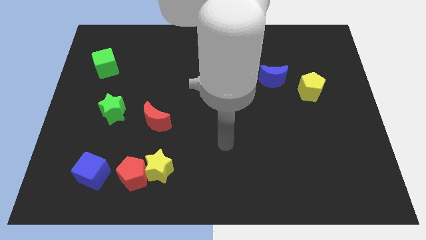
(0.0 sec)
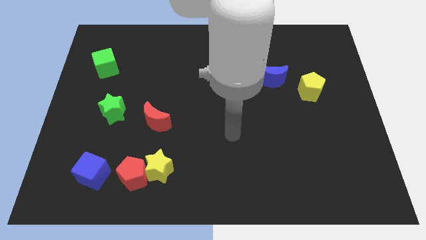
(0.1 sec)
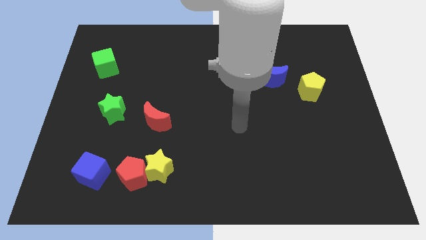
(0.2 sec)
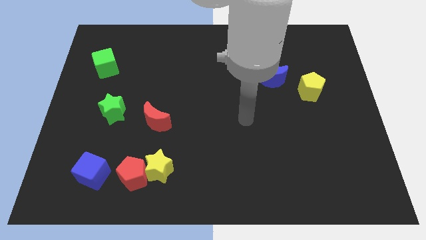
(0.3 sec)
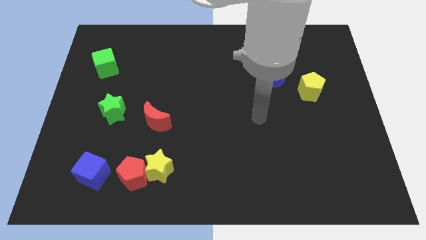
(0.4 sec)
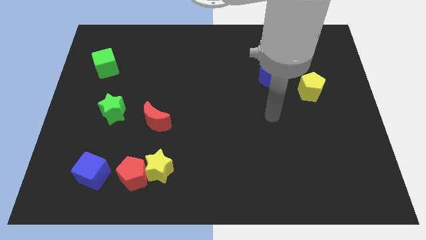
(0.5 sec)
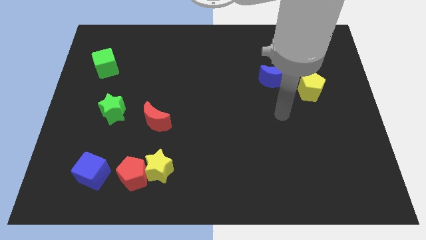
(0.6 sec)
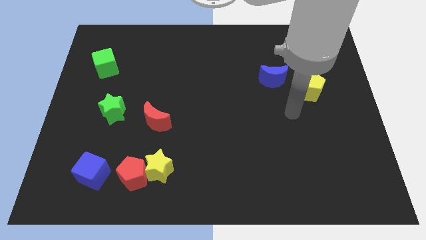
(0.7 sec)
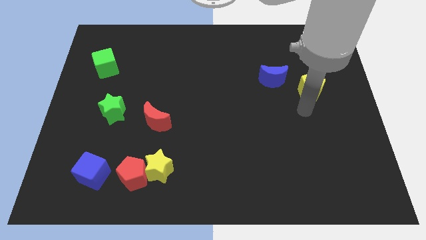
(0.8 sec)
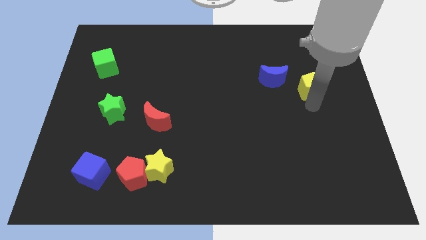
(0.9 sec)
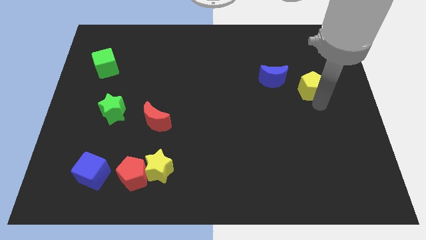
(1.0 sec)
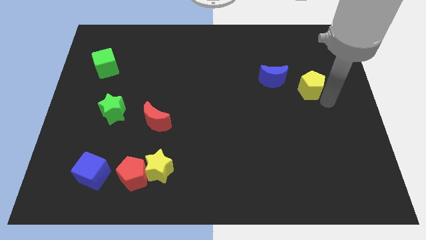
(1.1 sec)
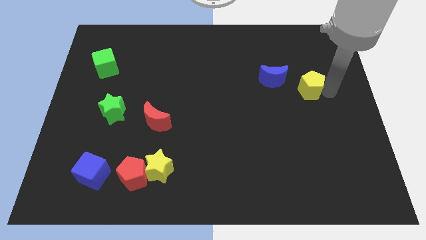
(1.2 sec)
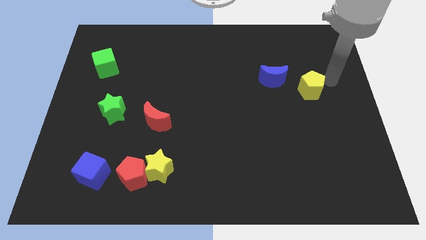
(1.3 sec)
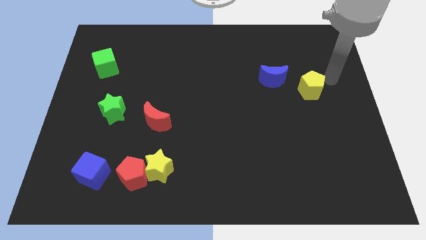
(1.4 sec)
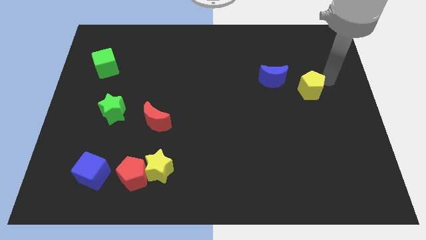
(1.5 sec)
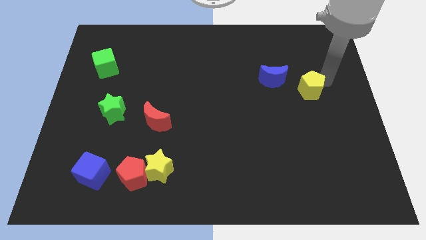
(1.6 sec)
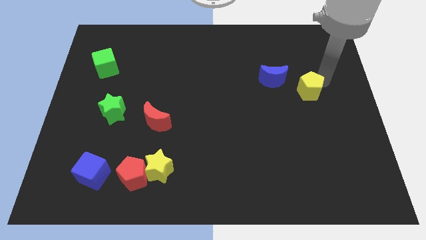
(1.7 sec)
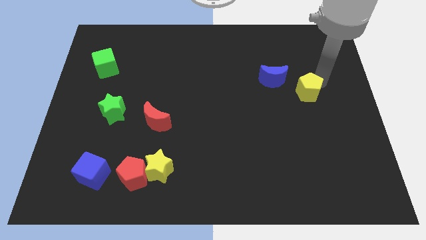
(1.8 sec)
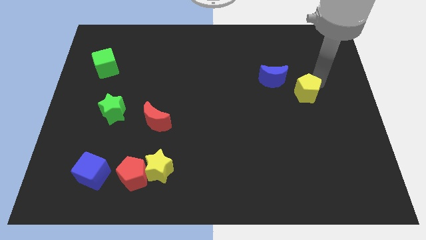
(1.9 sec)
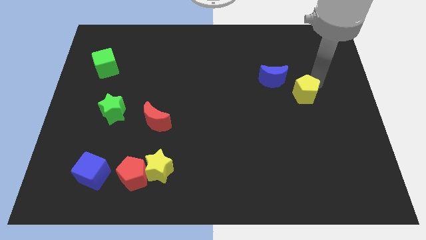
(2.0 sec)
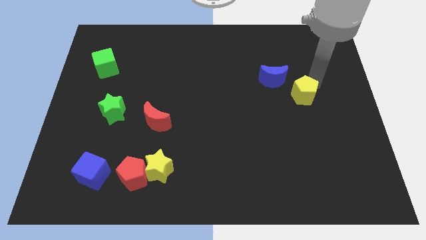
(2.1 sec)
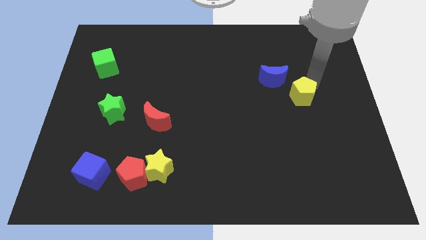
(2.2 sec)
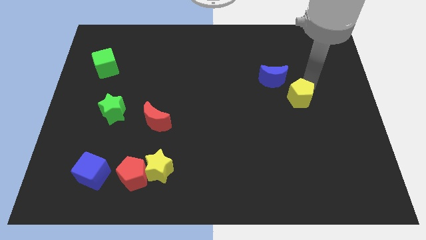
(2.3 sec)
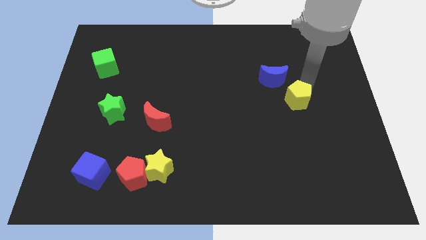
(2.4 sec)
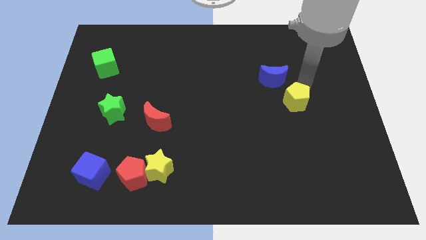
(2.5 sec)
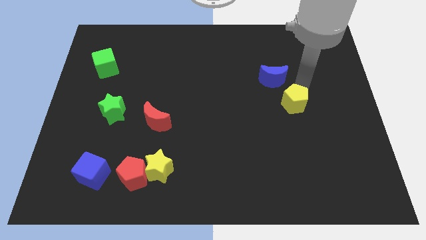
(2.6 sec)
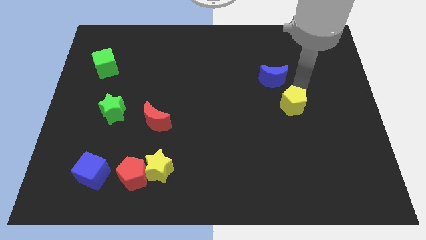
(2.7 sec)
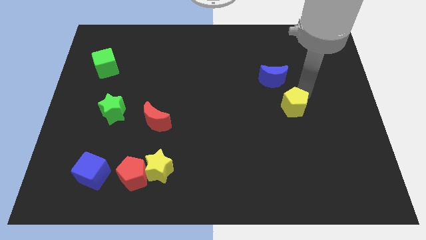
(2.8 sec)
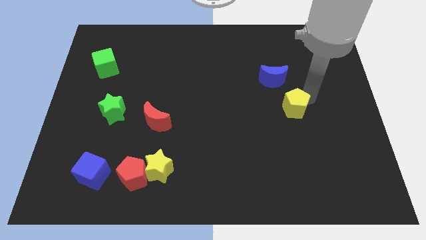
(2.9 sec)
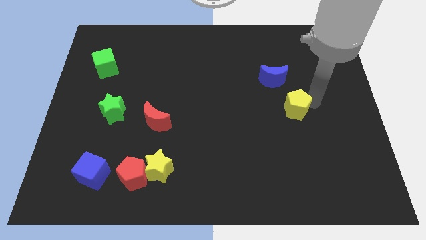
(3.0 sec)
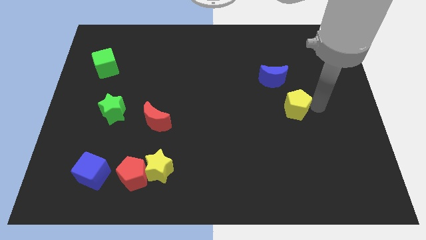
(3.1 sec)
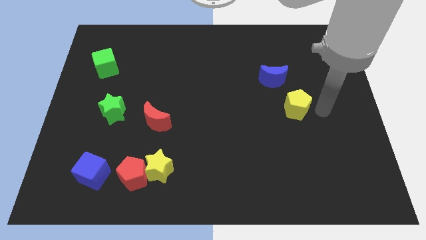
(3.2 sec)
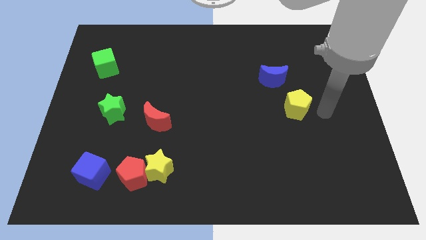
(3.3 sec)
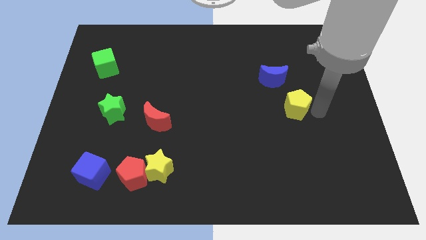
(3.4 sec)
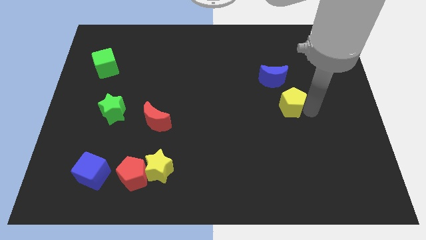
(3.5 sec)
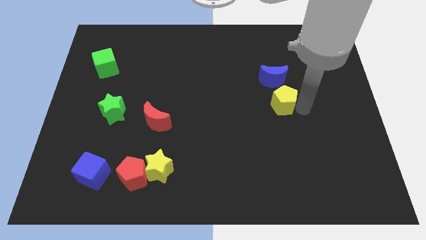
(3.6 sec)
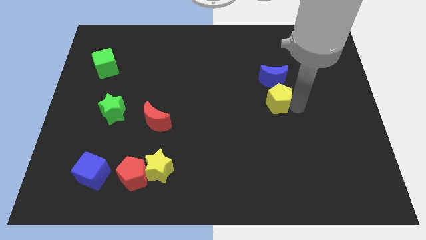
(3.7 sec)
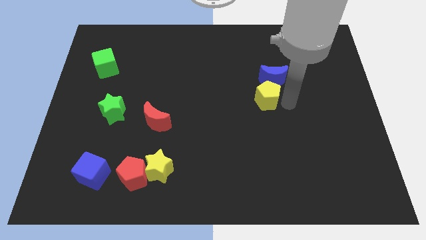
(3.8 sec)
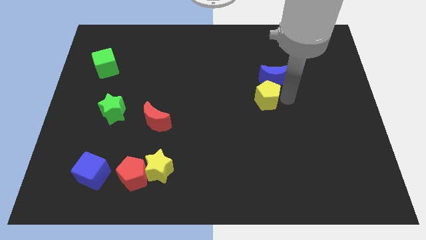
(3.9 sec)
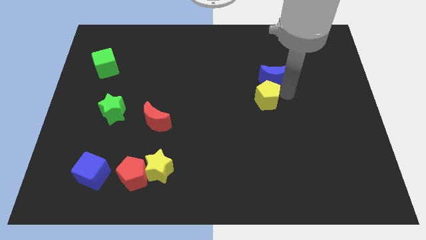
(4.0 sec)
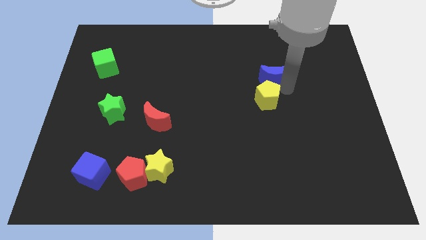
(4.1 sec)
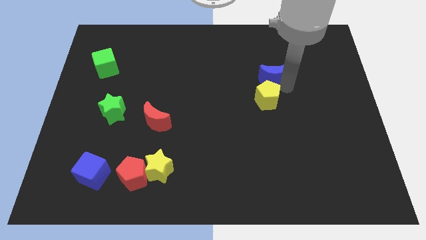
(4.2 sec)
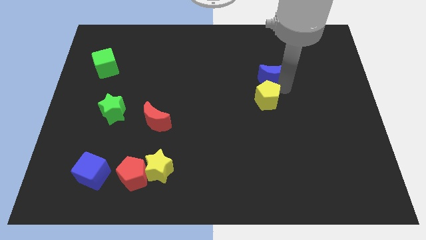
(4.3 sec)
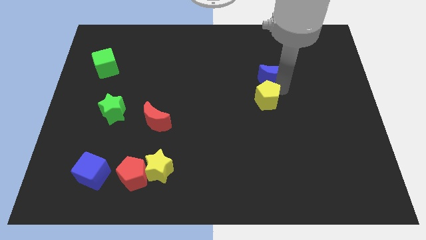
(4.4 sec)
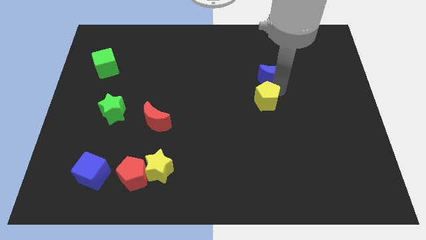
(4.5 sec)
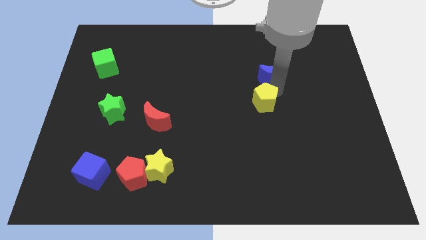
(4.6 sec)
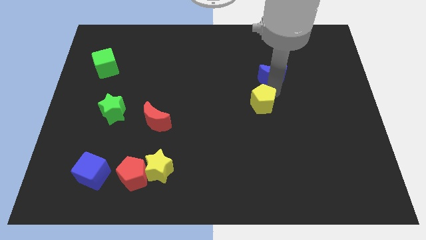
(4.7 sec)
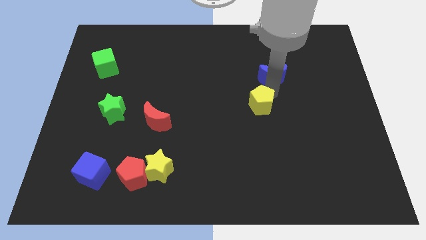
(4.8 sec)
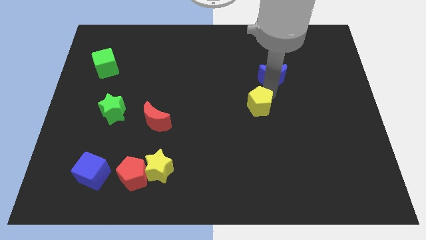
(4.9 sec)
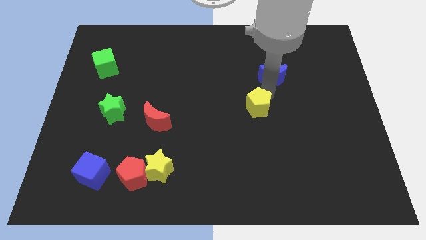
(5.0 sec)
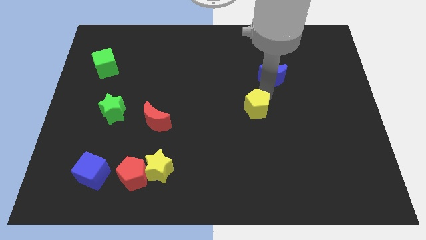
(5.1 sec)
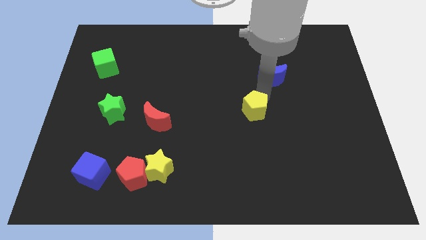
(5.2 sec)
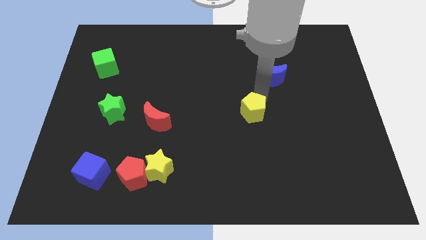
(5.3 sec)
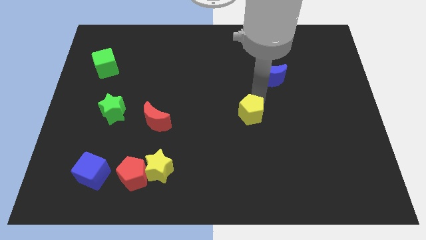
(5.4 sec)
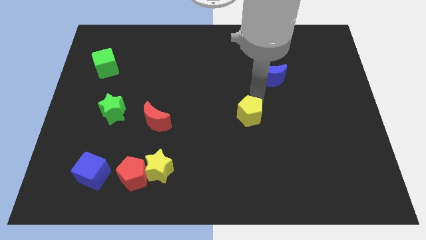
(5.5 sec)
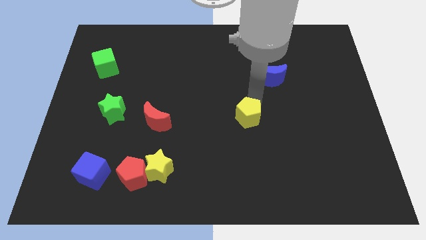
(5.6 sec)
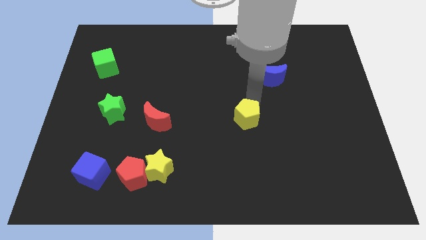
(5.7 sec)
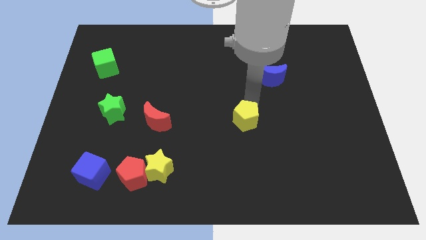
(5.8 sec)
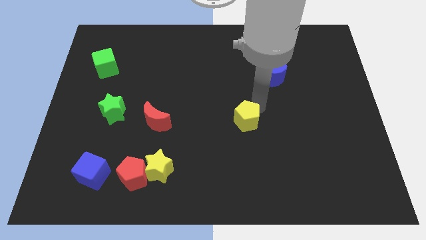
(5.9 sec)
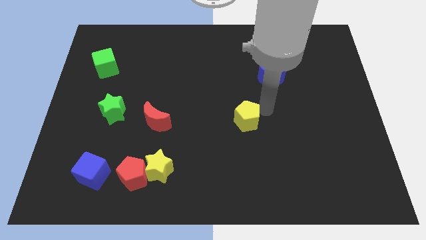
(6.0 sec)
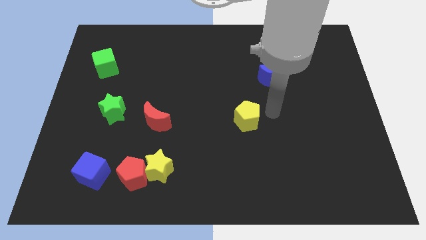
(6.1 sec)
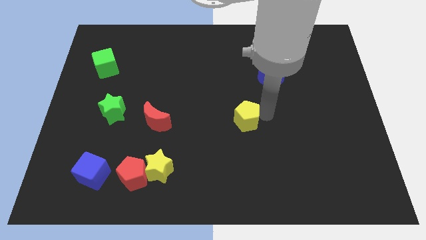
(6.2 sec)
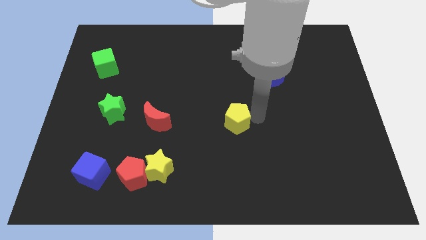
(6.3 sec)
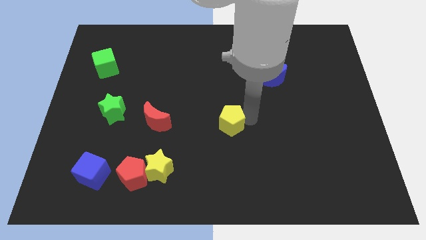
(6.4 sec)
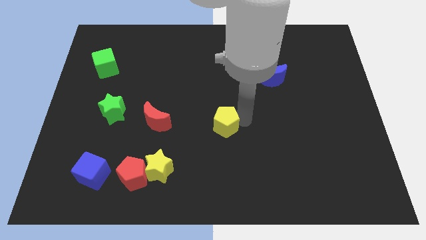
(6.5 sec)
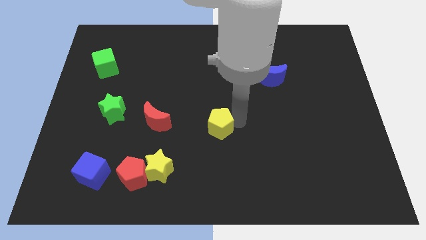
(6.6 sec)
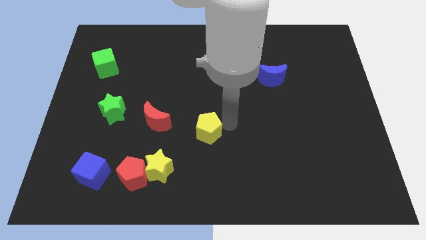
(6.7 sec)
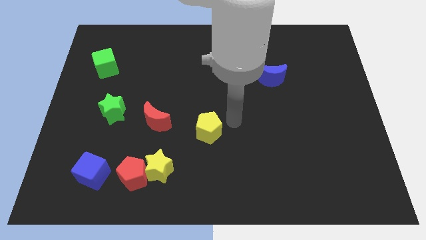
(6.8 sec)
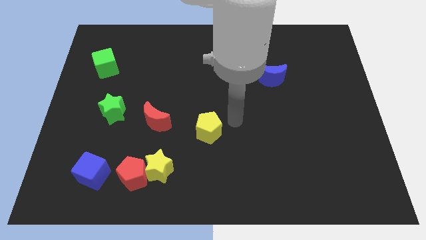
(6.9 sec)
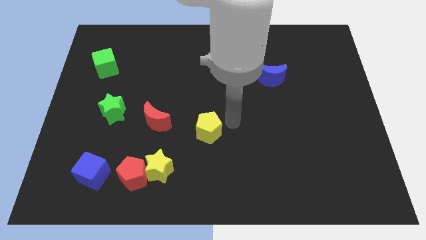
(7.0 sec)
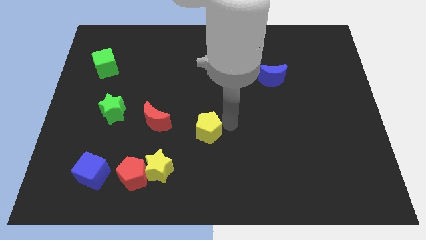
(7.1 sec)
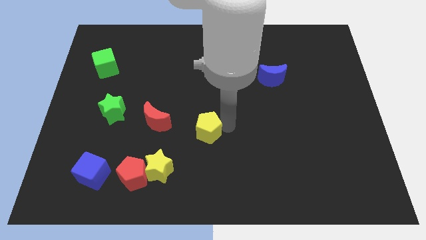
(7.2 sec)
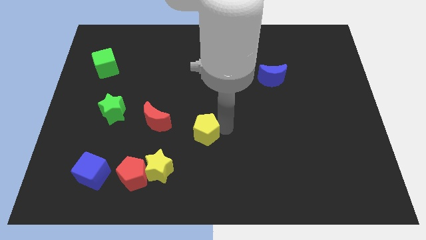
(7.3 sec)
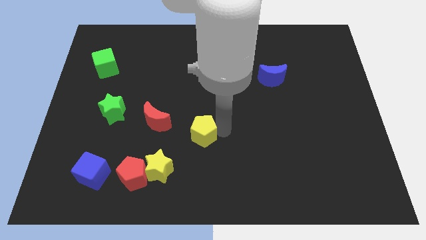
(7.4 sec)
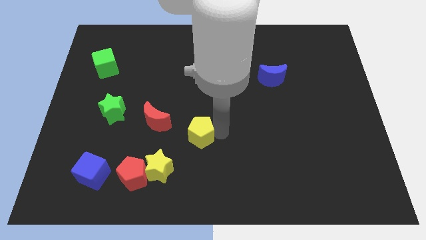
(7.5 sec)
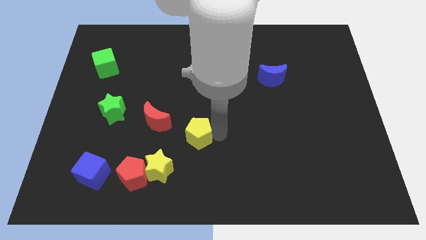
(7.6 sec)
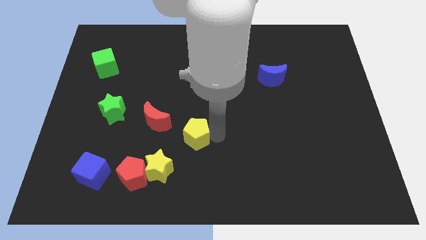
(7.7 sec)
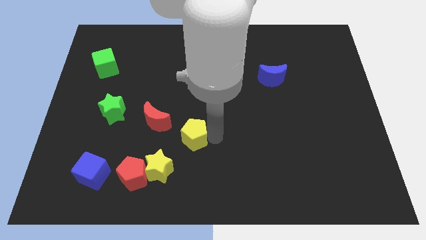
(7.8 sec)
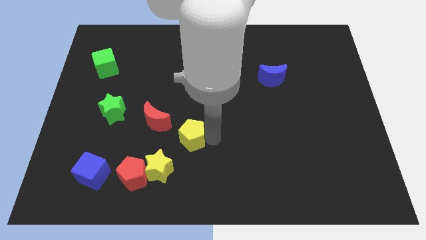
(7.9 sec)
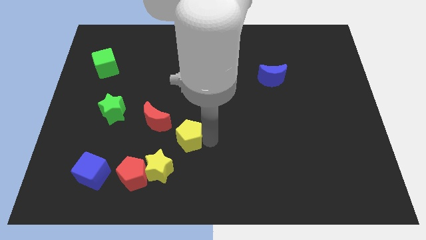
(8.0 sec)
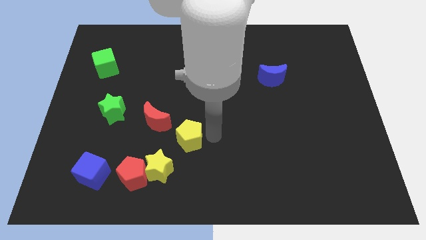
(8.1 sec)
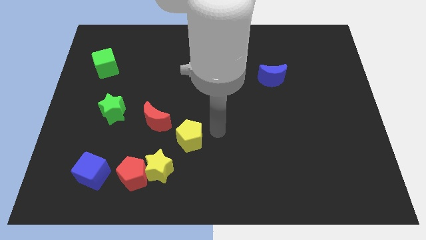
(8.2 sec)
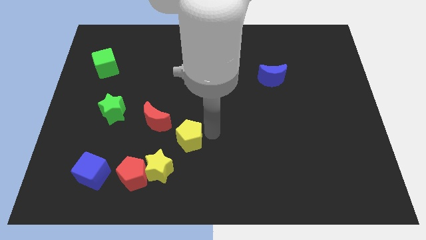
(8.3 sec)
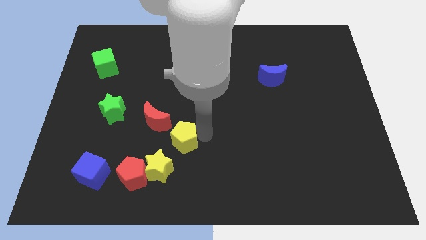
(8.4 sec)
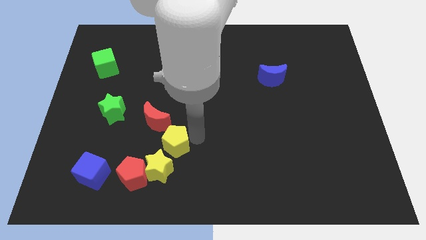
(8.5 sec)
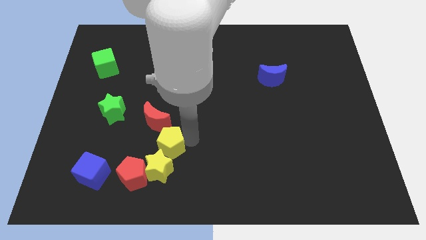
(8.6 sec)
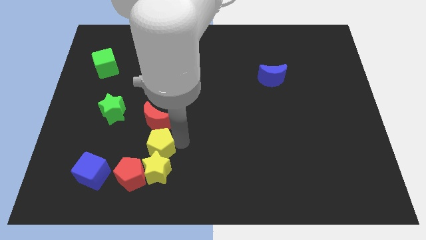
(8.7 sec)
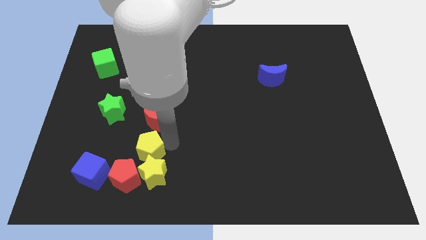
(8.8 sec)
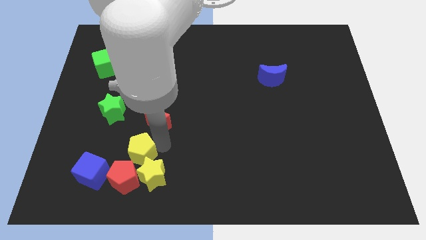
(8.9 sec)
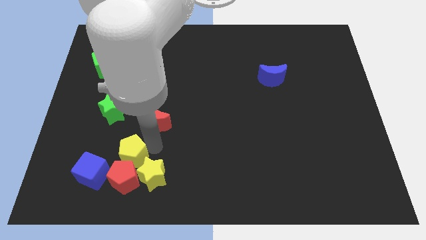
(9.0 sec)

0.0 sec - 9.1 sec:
push the yellow pentagon close to the red pentagon
